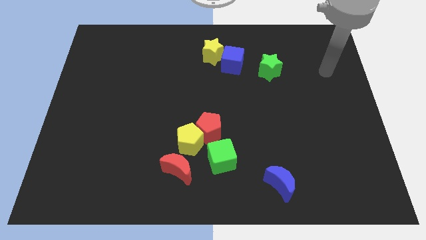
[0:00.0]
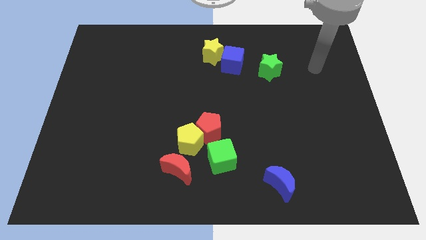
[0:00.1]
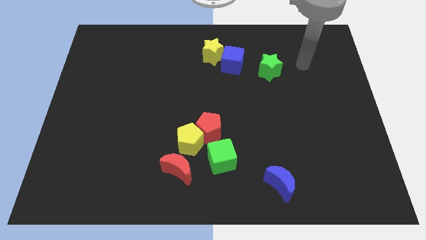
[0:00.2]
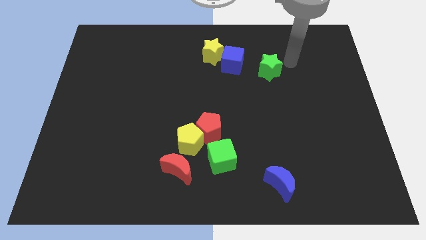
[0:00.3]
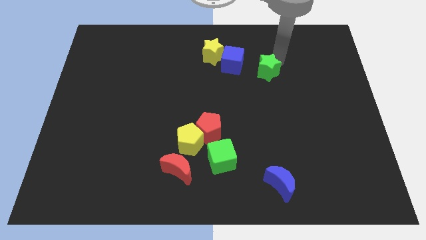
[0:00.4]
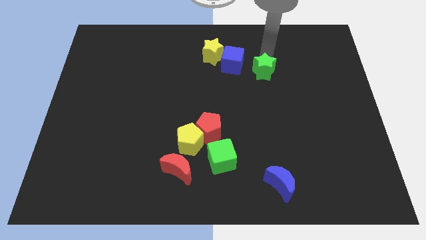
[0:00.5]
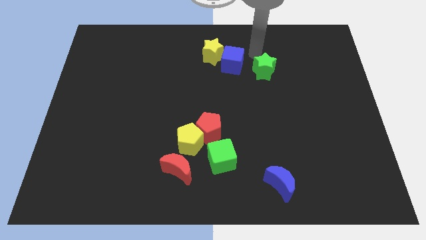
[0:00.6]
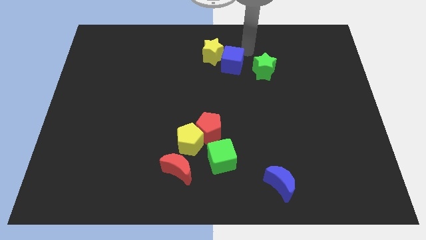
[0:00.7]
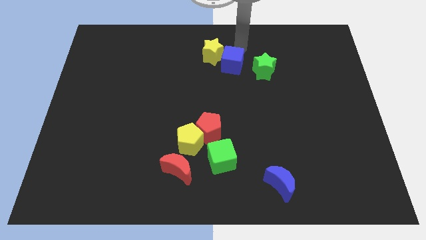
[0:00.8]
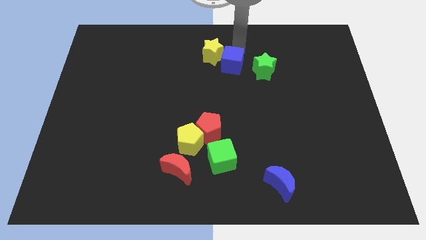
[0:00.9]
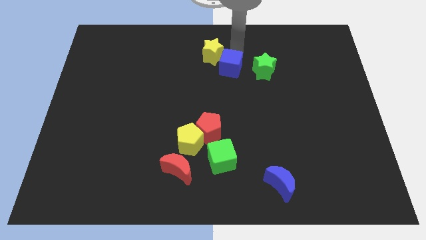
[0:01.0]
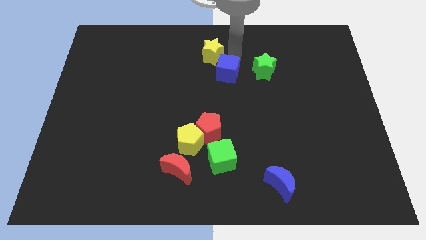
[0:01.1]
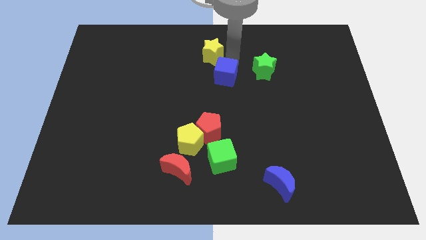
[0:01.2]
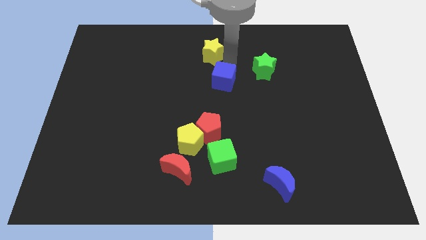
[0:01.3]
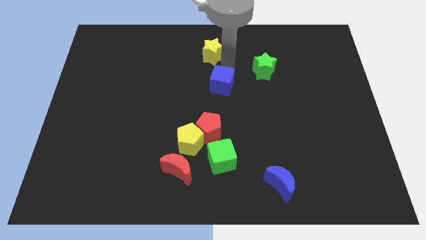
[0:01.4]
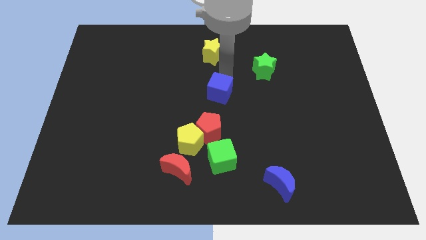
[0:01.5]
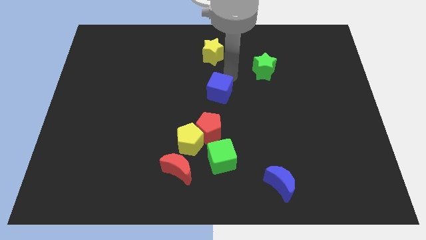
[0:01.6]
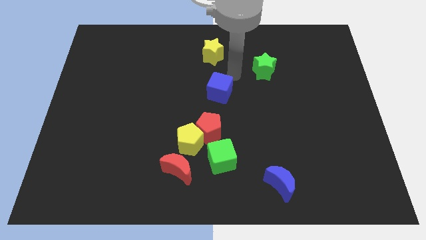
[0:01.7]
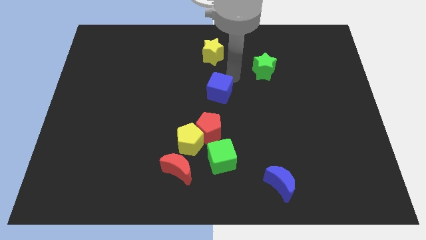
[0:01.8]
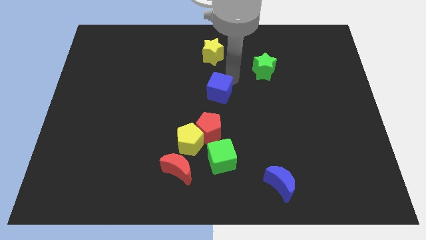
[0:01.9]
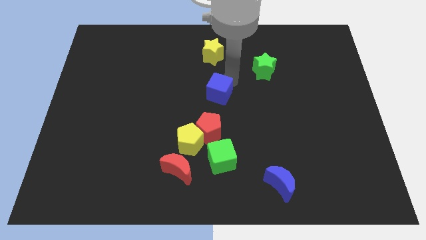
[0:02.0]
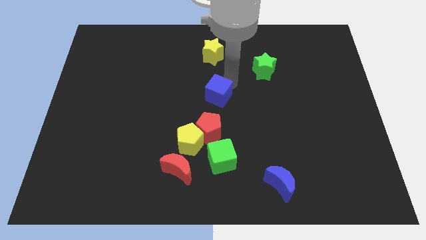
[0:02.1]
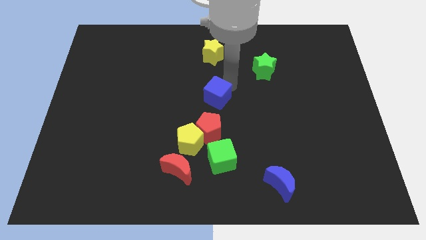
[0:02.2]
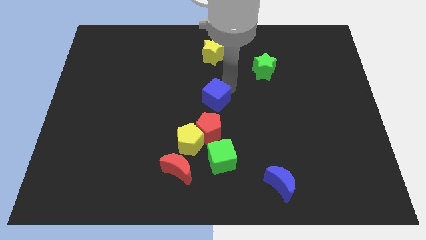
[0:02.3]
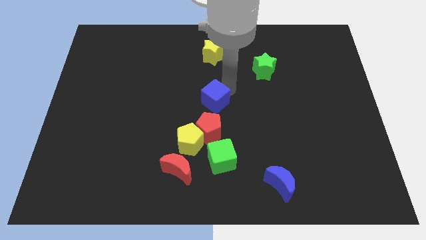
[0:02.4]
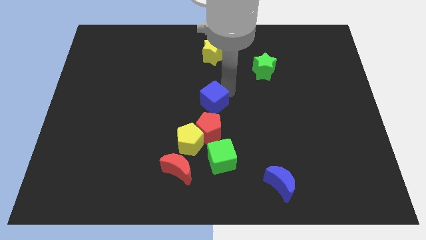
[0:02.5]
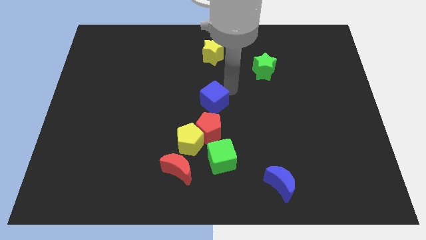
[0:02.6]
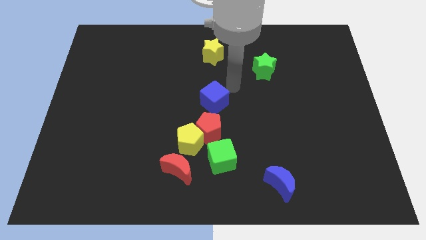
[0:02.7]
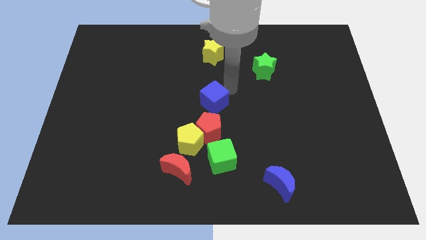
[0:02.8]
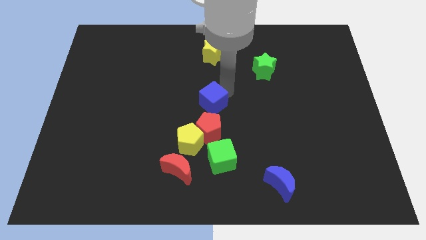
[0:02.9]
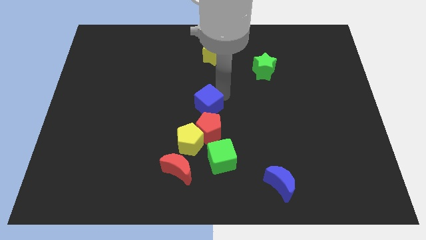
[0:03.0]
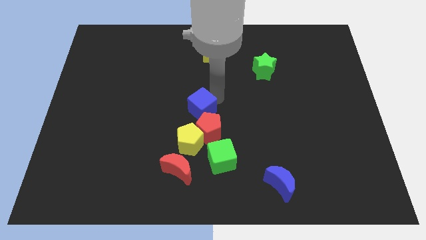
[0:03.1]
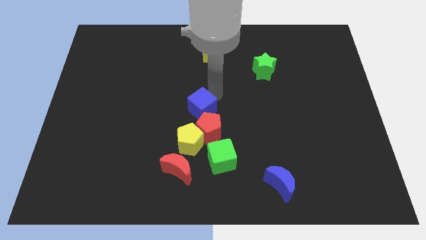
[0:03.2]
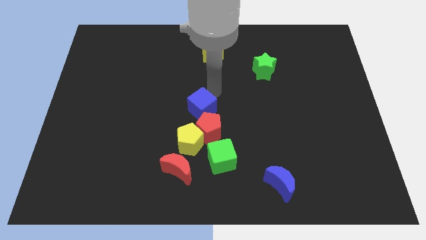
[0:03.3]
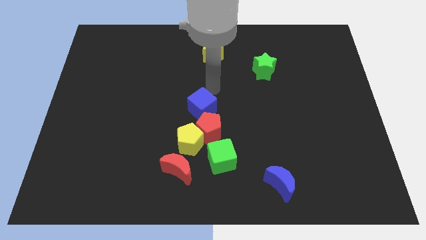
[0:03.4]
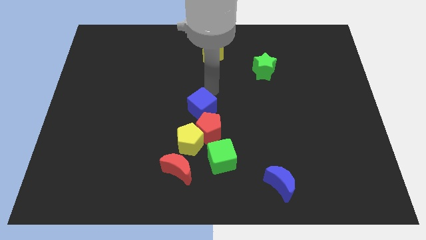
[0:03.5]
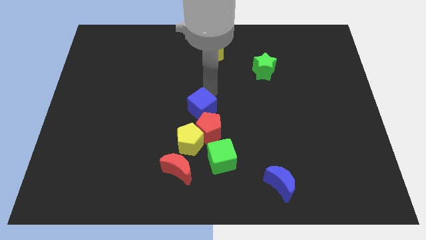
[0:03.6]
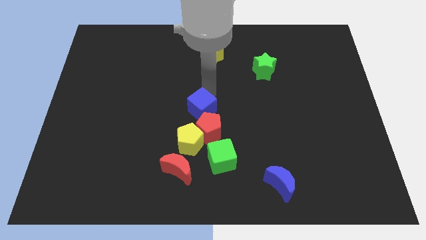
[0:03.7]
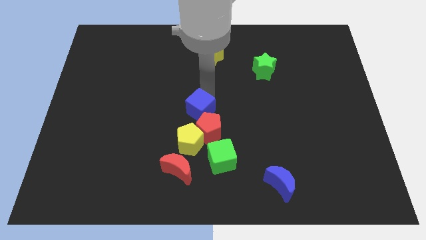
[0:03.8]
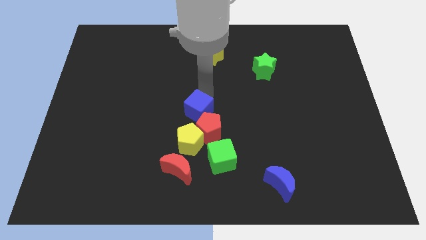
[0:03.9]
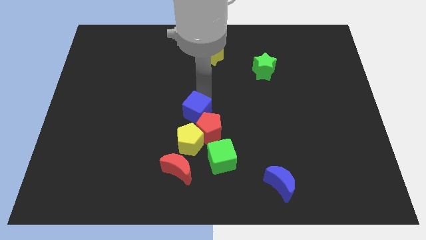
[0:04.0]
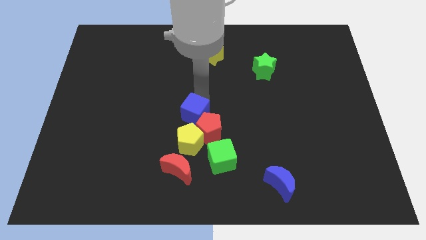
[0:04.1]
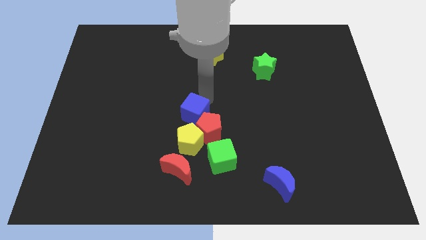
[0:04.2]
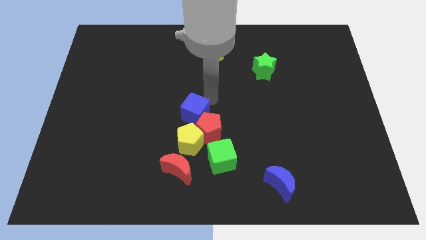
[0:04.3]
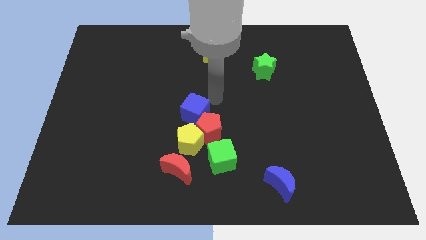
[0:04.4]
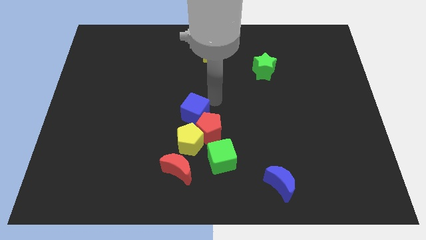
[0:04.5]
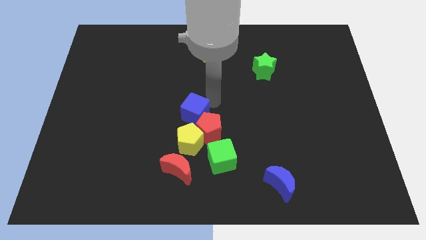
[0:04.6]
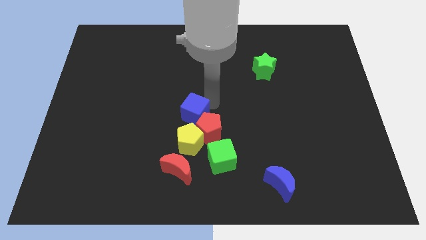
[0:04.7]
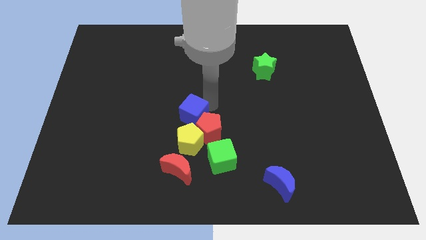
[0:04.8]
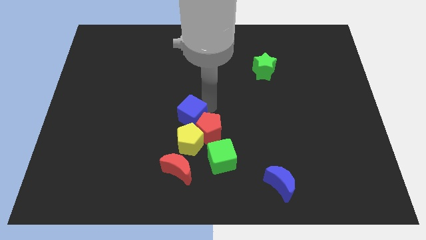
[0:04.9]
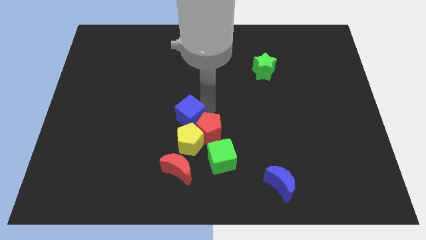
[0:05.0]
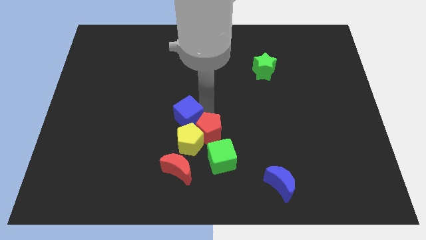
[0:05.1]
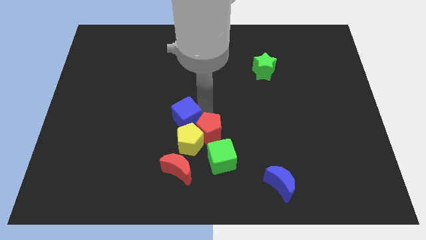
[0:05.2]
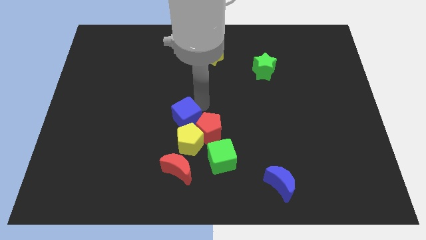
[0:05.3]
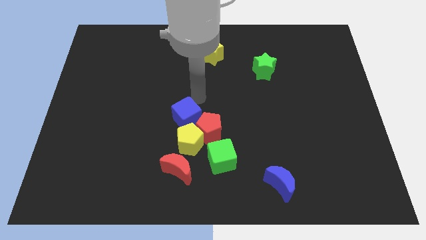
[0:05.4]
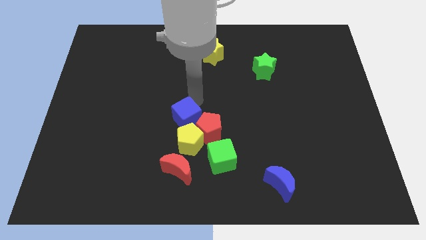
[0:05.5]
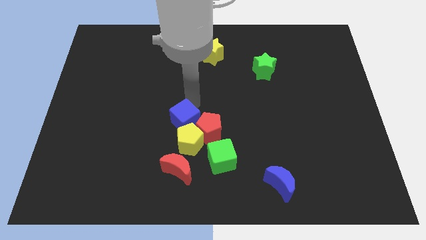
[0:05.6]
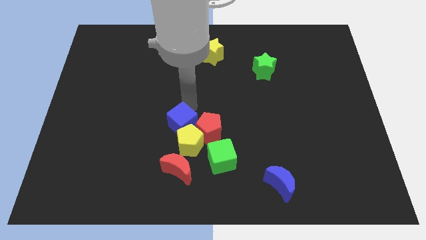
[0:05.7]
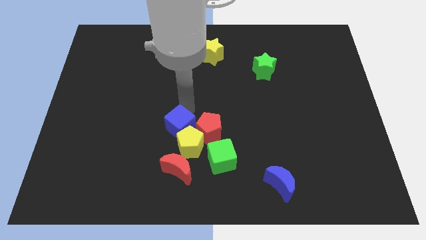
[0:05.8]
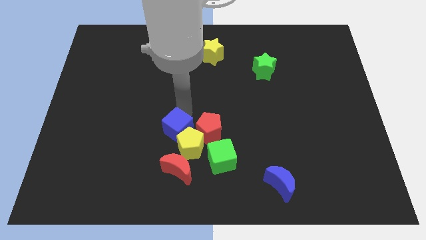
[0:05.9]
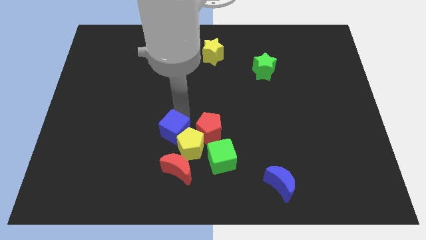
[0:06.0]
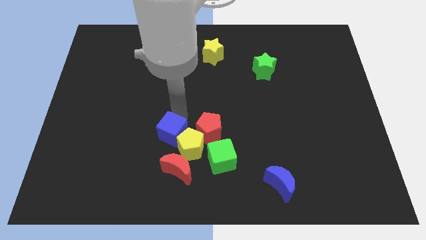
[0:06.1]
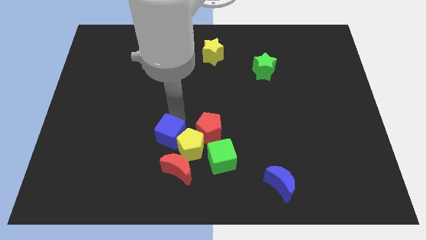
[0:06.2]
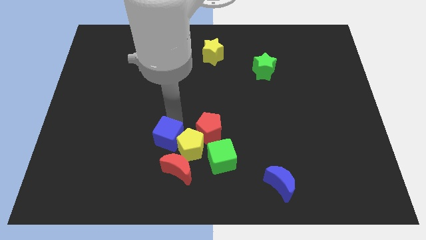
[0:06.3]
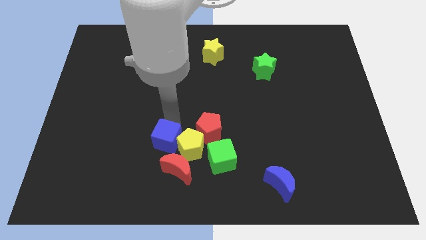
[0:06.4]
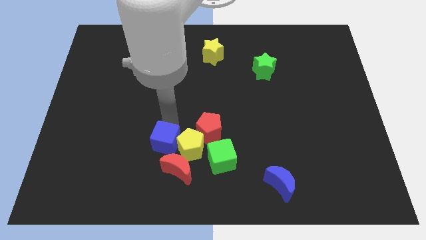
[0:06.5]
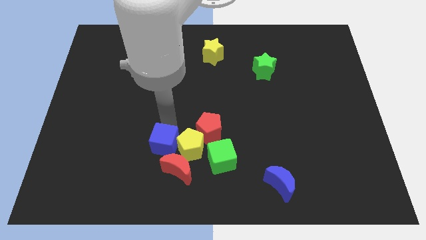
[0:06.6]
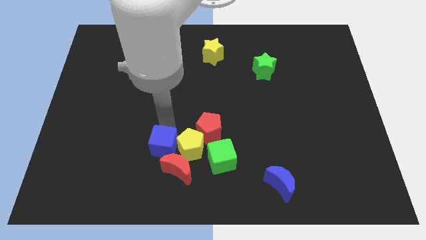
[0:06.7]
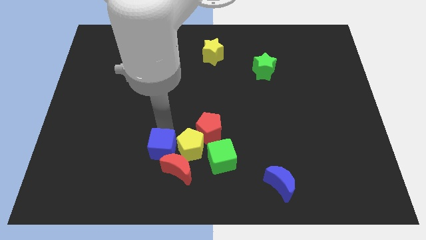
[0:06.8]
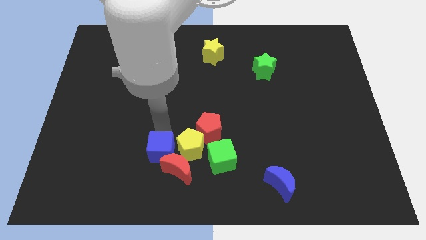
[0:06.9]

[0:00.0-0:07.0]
put the blue cube towards the red moon
